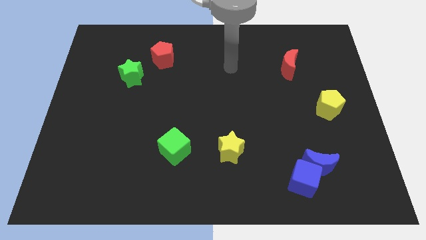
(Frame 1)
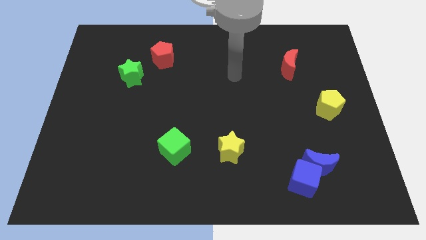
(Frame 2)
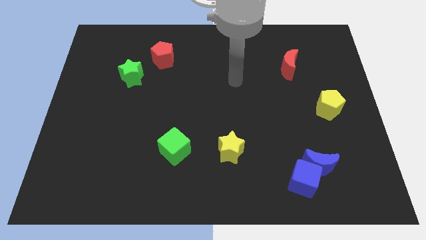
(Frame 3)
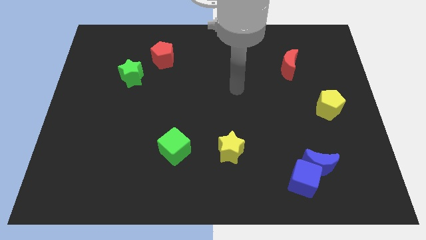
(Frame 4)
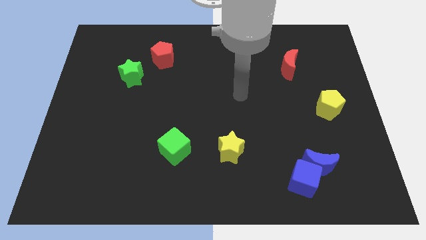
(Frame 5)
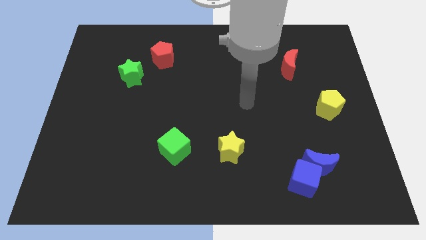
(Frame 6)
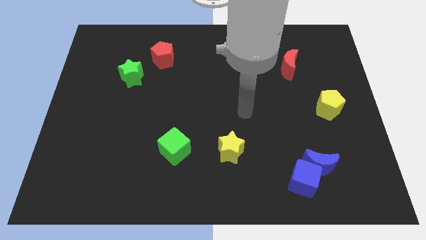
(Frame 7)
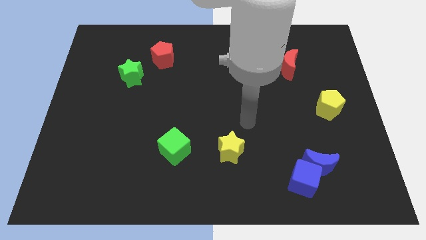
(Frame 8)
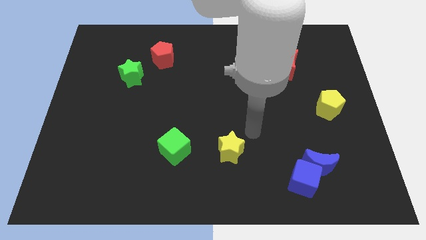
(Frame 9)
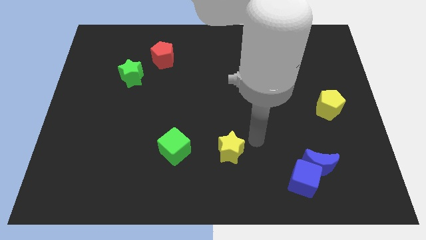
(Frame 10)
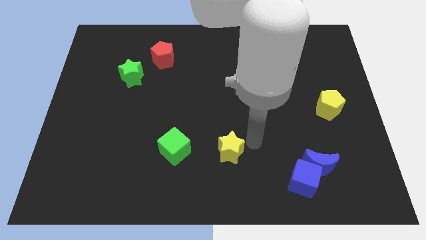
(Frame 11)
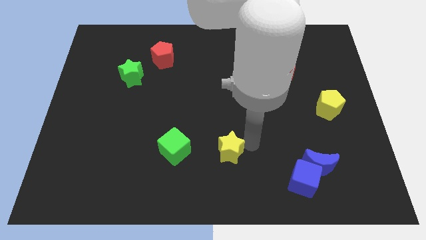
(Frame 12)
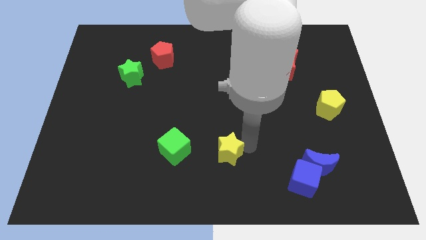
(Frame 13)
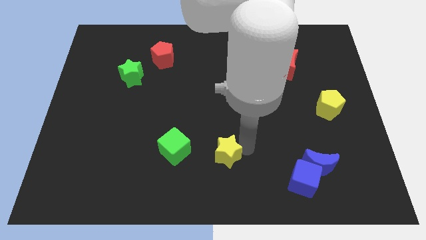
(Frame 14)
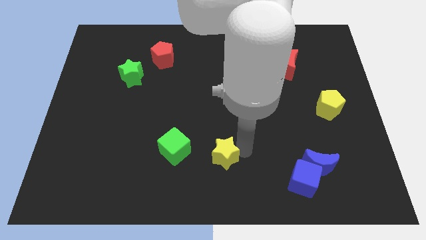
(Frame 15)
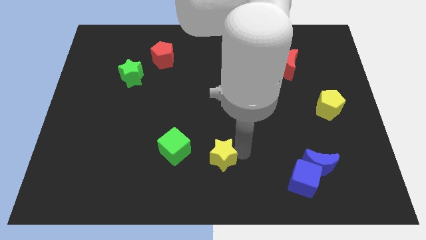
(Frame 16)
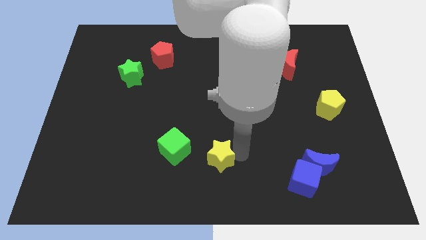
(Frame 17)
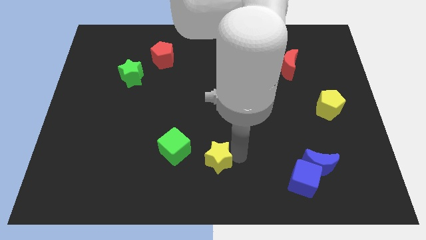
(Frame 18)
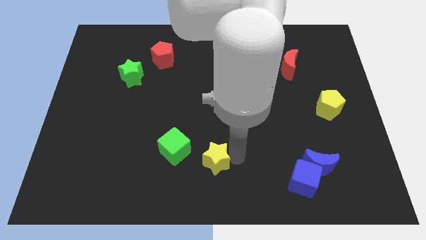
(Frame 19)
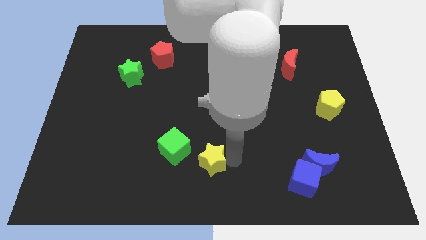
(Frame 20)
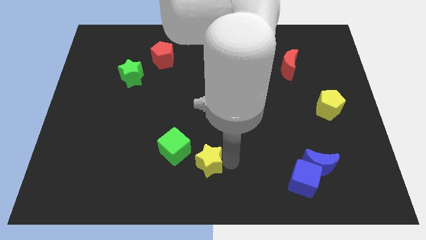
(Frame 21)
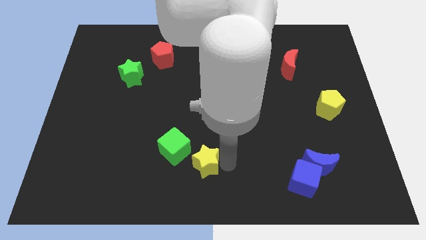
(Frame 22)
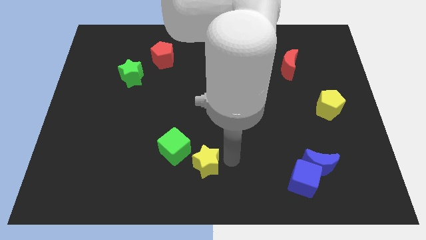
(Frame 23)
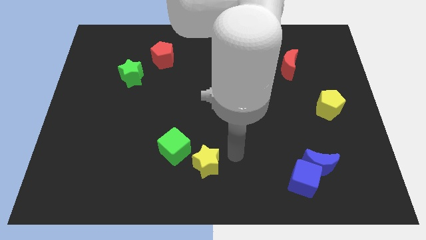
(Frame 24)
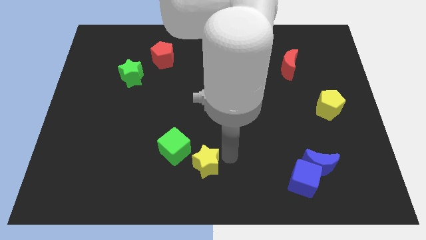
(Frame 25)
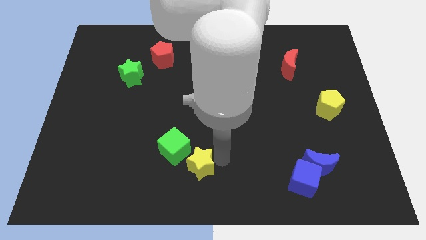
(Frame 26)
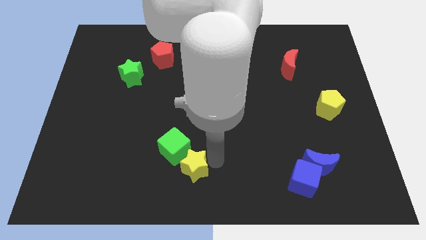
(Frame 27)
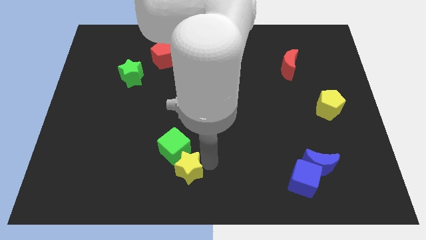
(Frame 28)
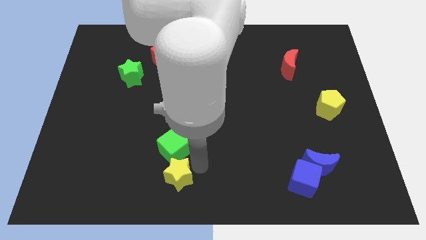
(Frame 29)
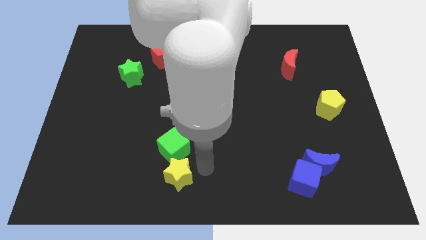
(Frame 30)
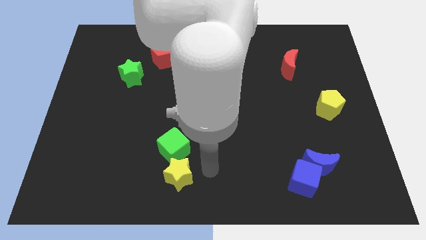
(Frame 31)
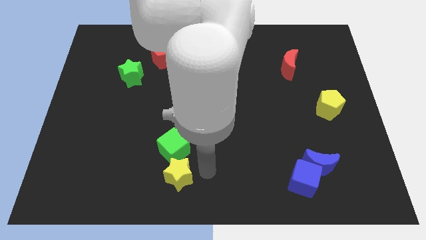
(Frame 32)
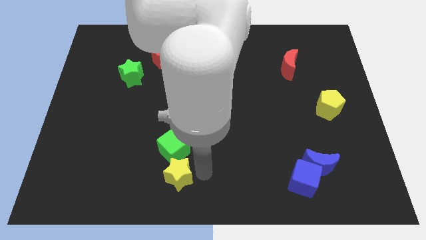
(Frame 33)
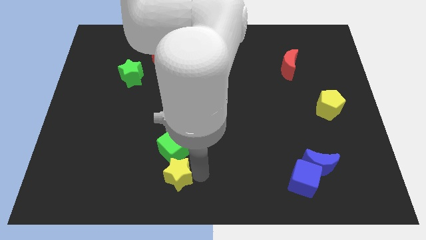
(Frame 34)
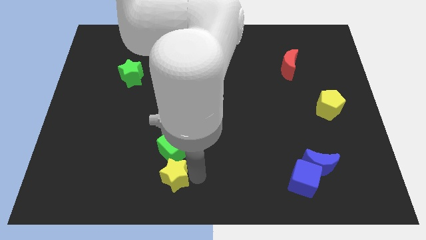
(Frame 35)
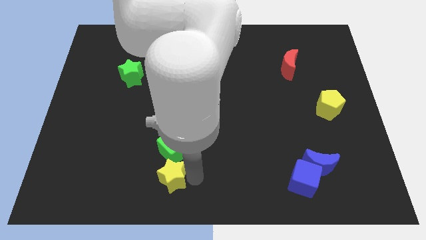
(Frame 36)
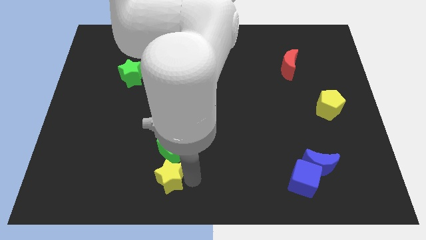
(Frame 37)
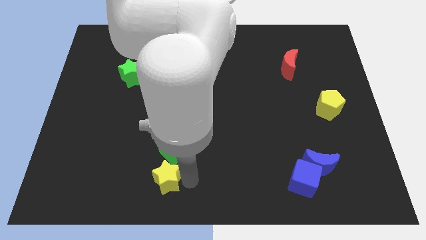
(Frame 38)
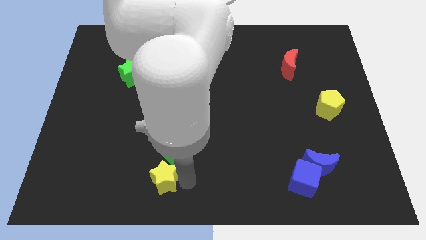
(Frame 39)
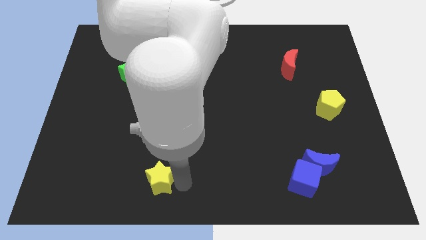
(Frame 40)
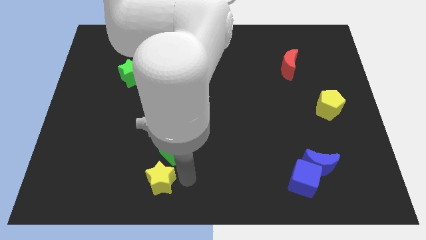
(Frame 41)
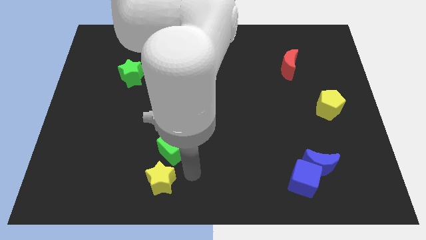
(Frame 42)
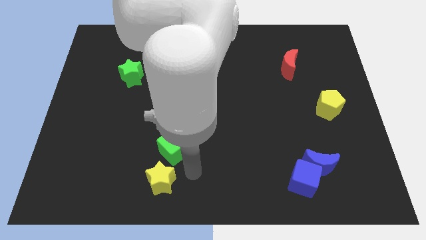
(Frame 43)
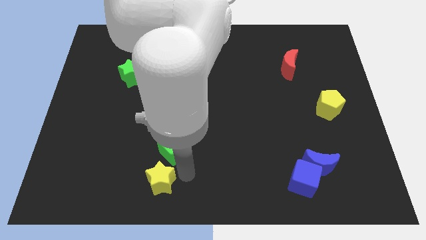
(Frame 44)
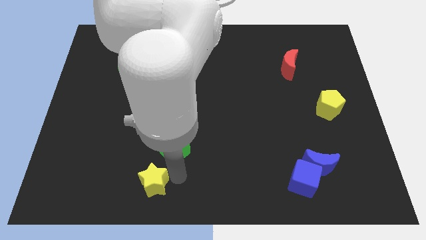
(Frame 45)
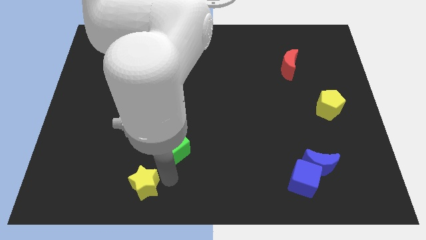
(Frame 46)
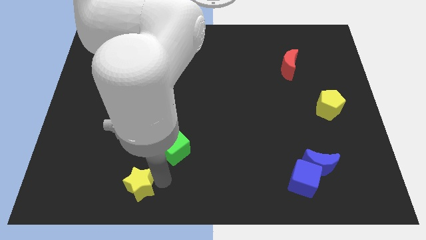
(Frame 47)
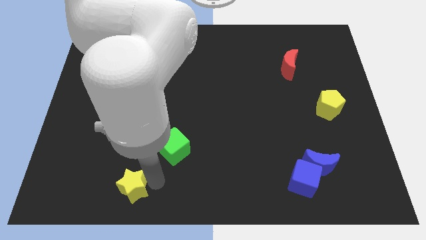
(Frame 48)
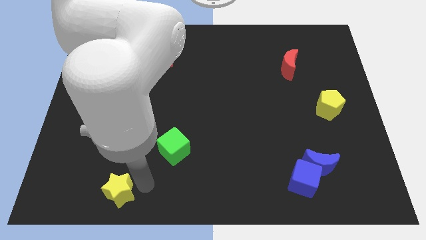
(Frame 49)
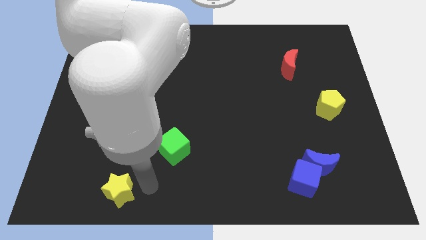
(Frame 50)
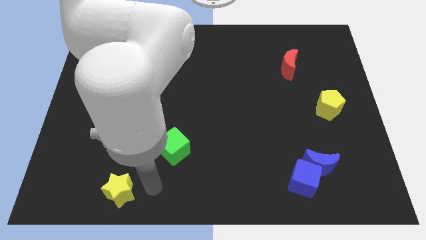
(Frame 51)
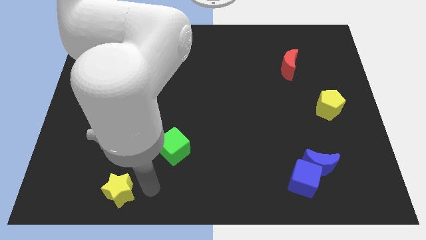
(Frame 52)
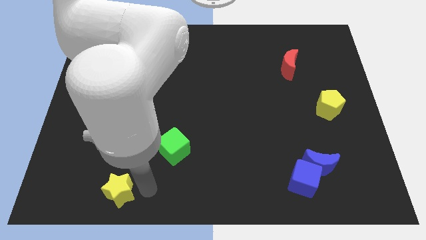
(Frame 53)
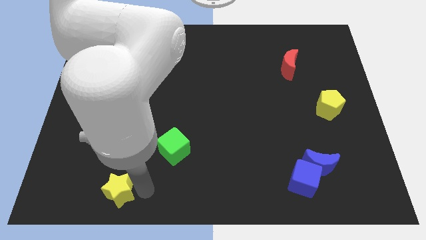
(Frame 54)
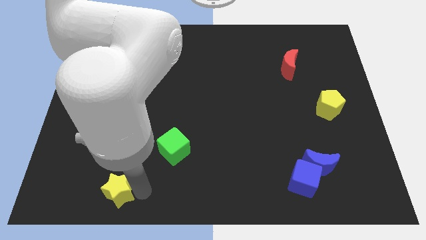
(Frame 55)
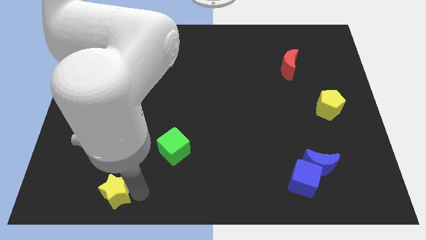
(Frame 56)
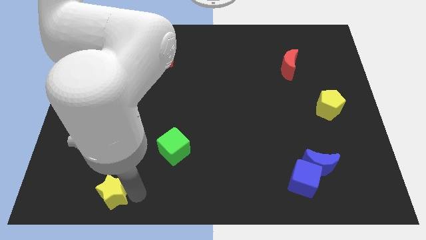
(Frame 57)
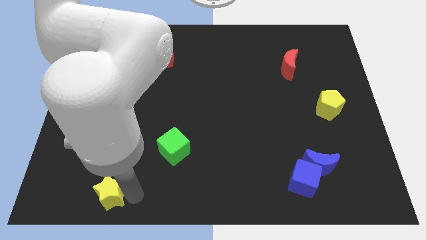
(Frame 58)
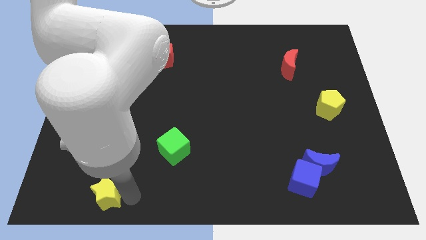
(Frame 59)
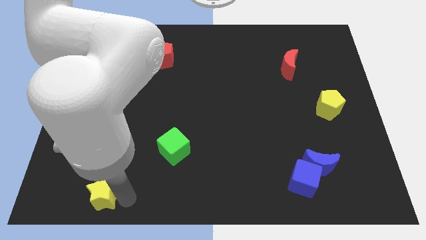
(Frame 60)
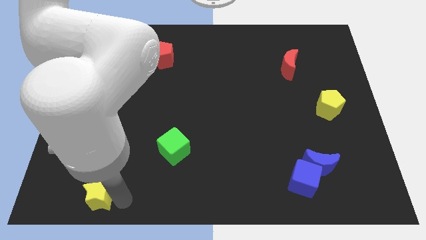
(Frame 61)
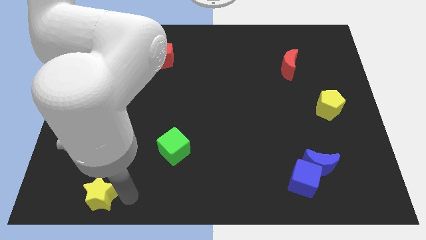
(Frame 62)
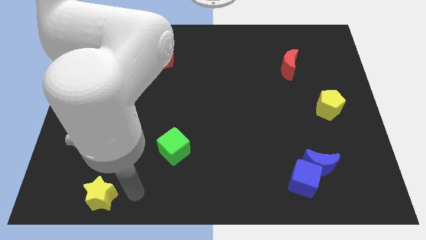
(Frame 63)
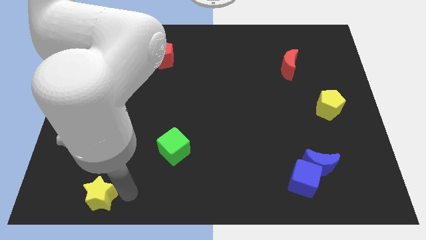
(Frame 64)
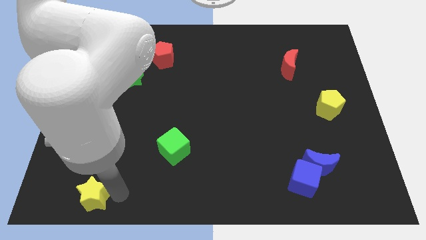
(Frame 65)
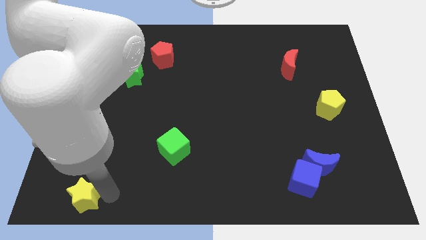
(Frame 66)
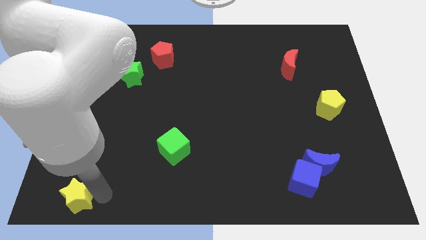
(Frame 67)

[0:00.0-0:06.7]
move the yellow star to the bottom left of the board
